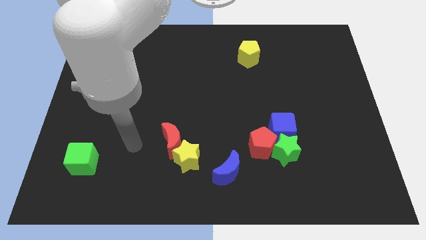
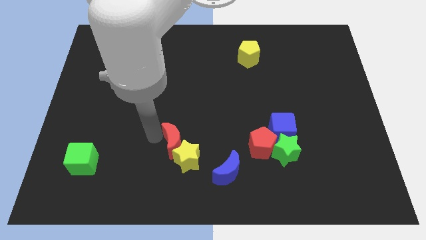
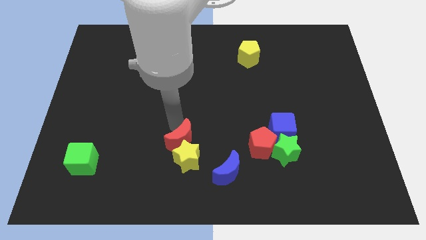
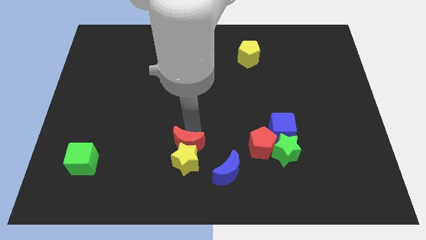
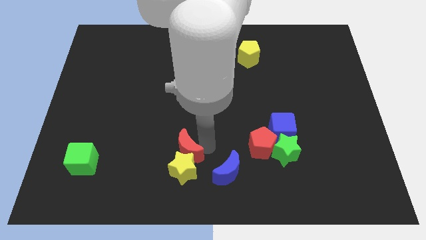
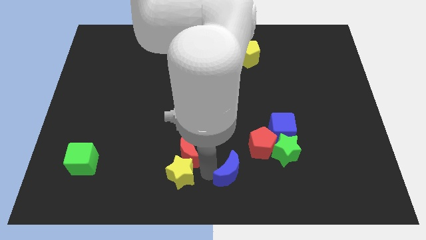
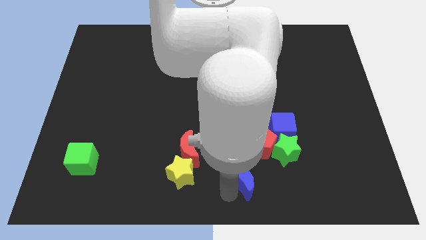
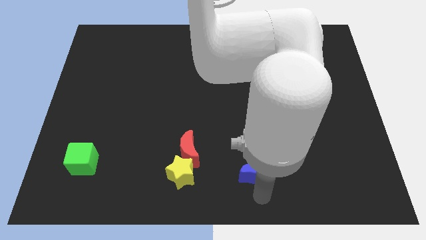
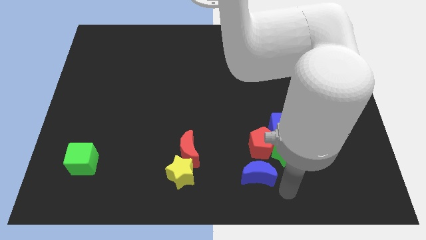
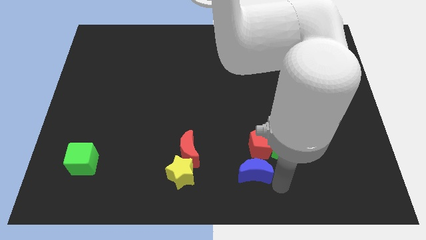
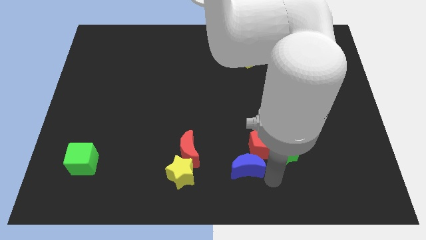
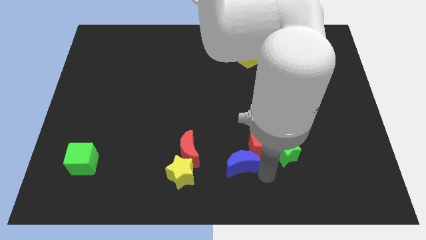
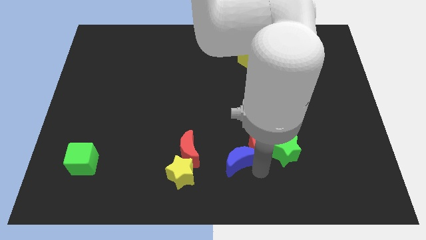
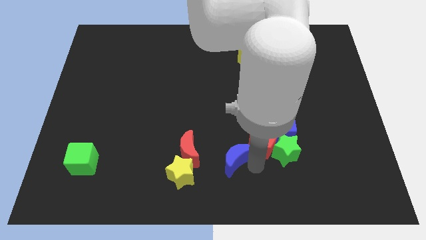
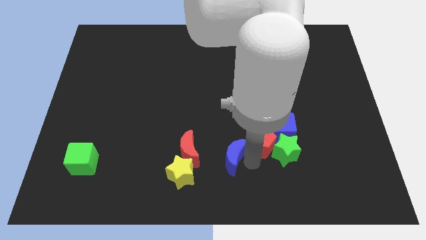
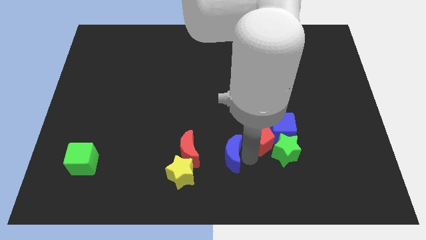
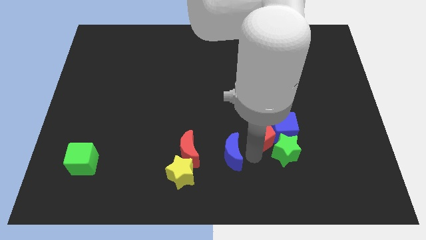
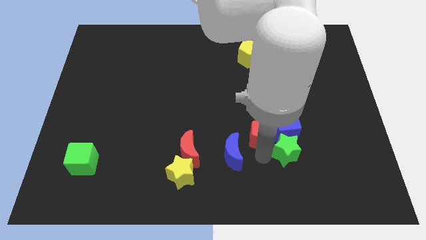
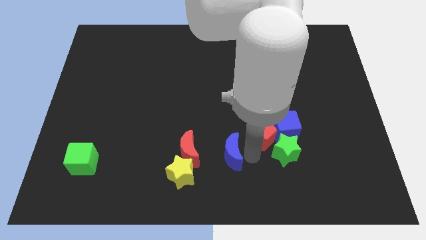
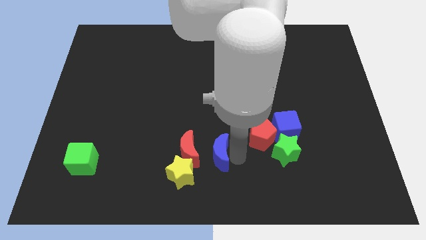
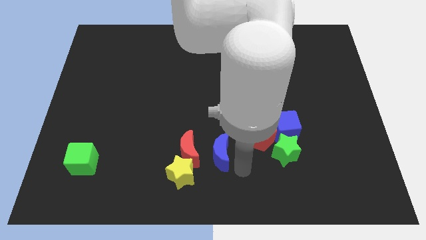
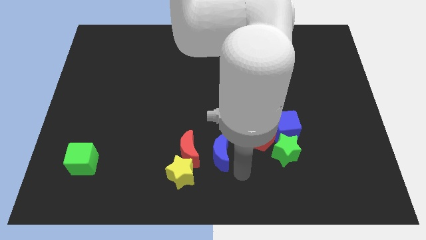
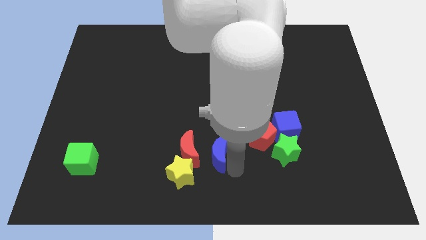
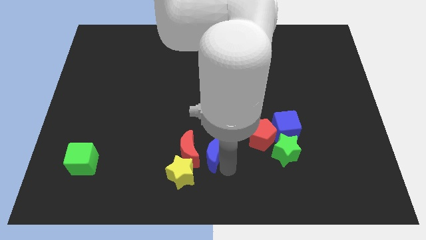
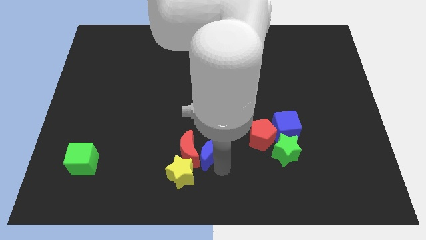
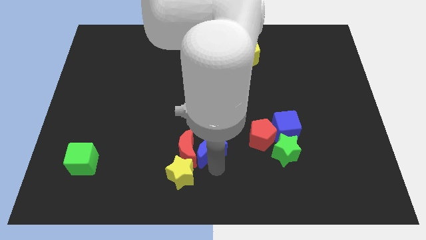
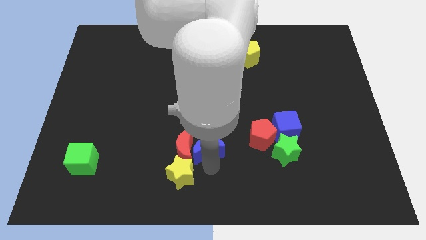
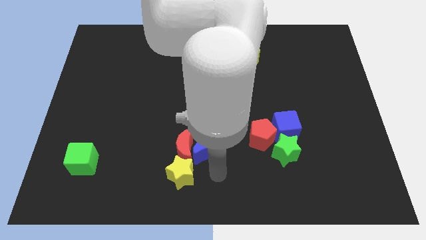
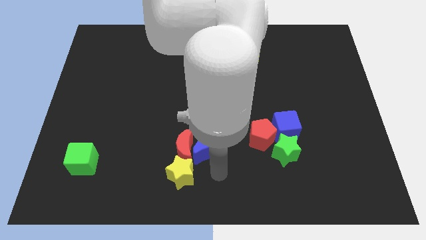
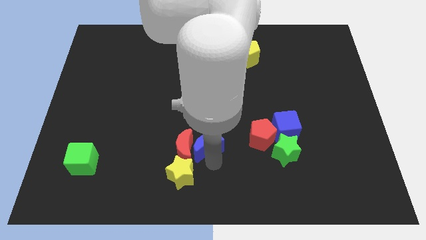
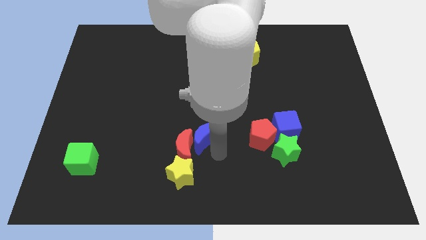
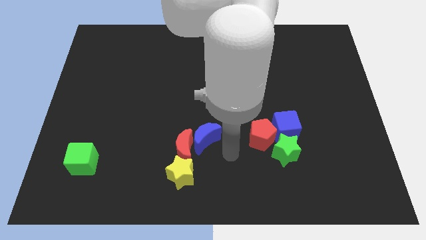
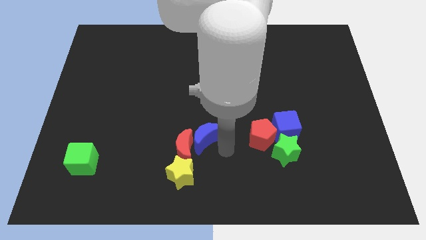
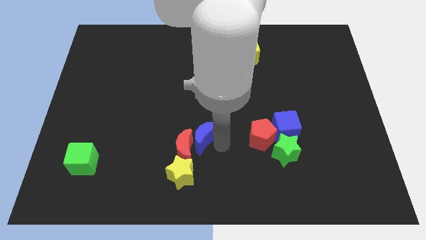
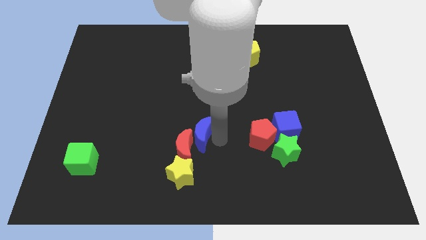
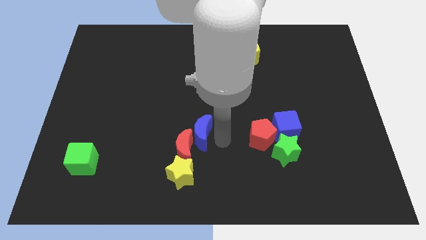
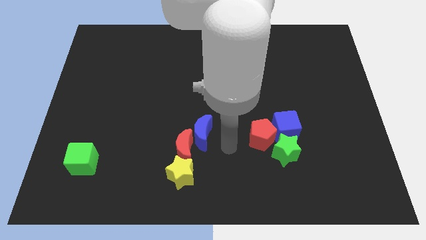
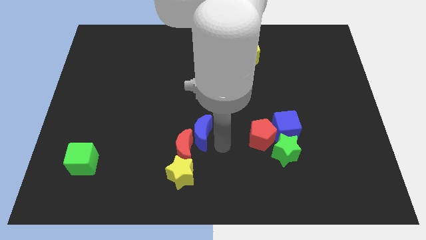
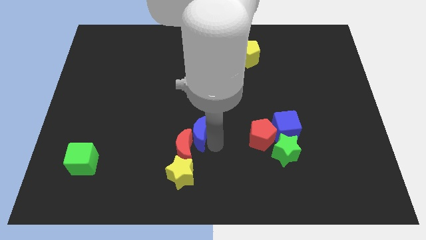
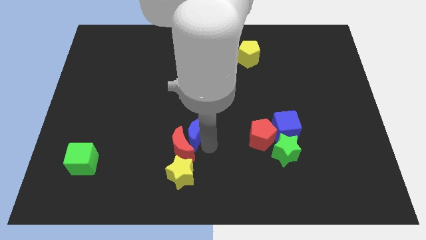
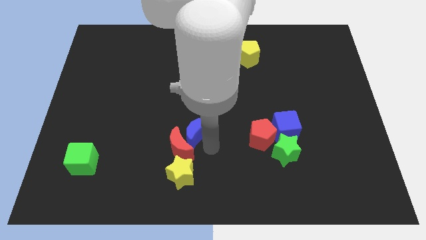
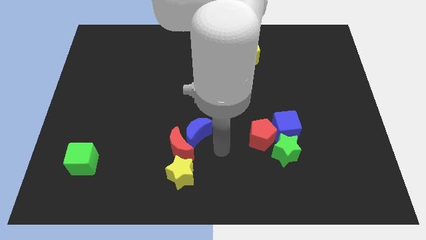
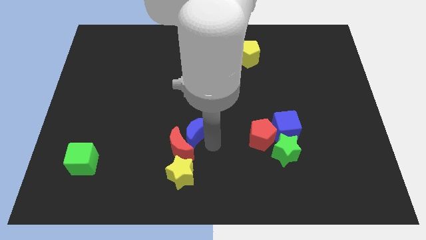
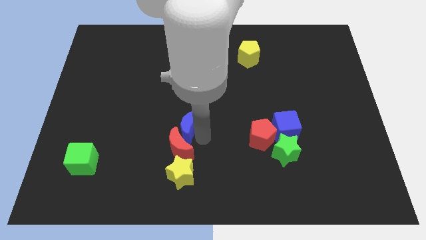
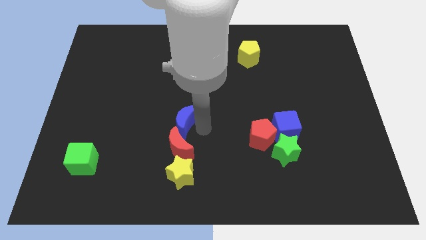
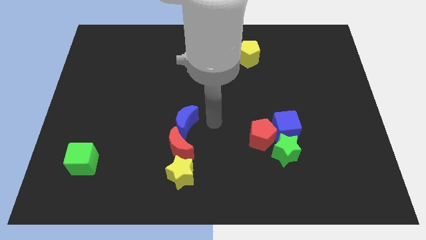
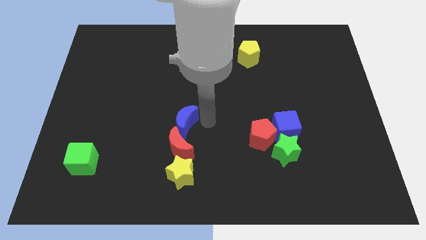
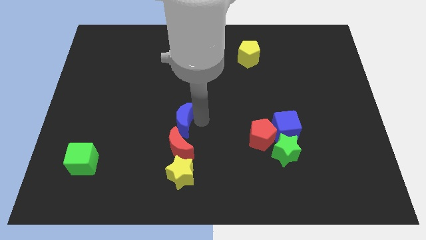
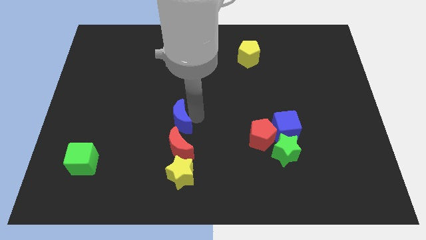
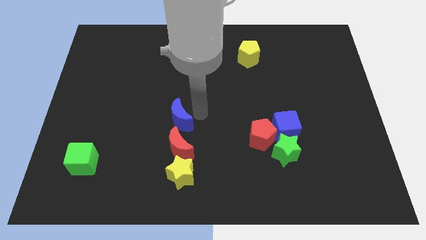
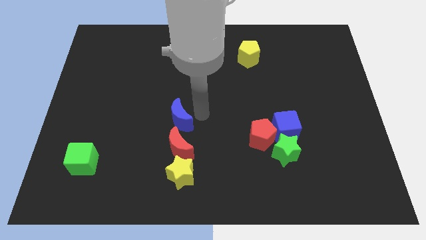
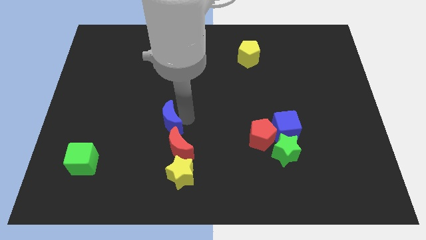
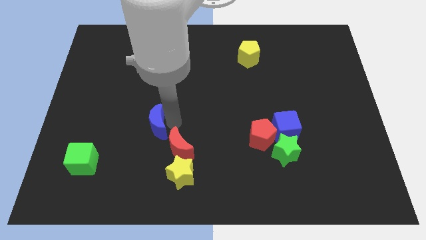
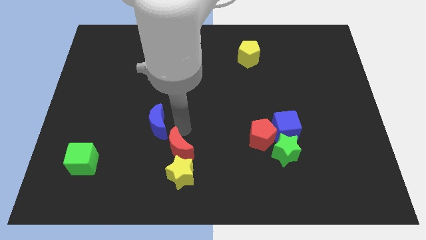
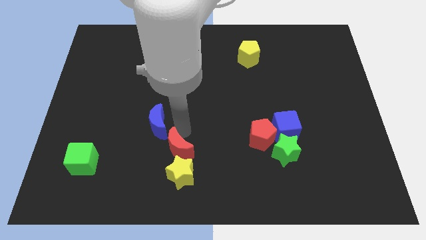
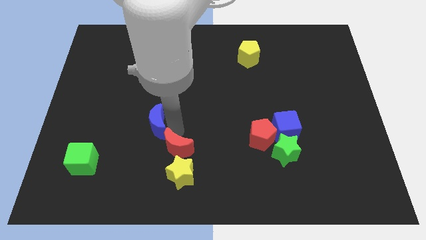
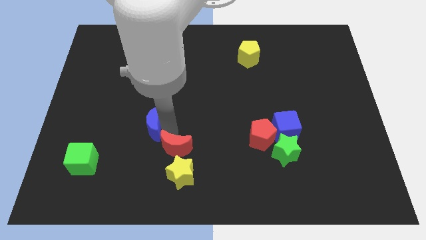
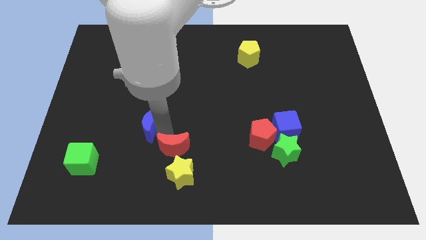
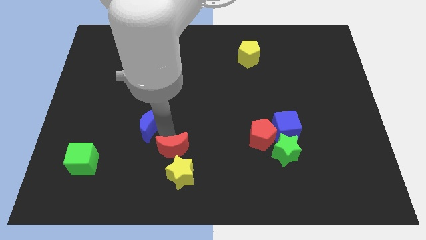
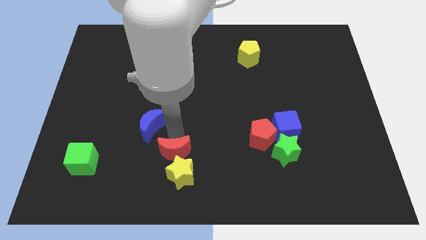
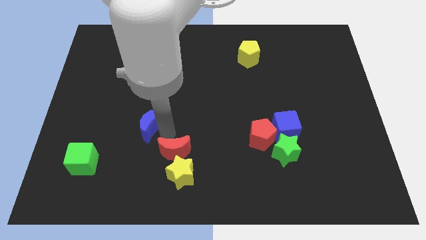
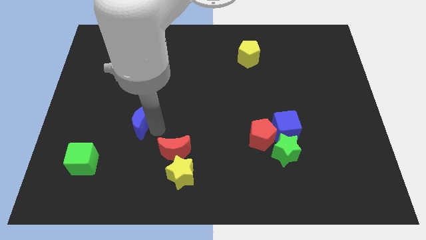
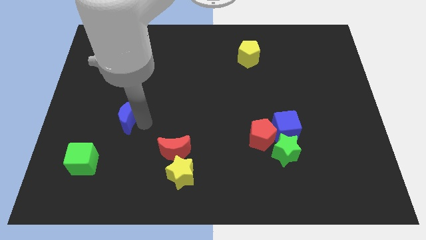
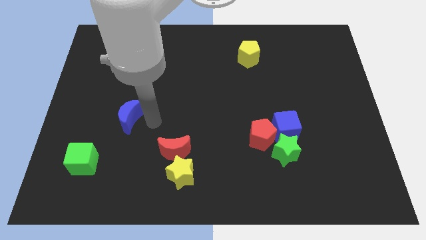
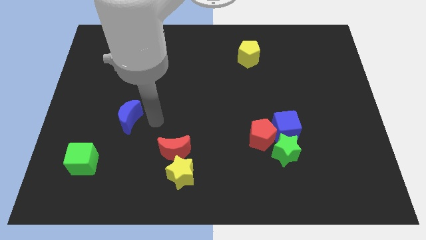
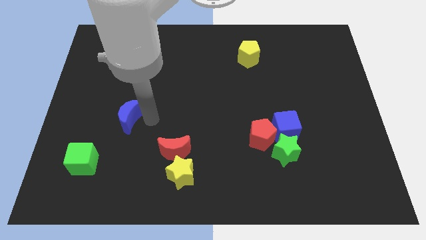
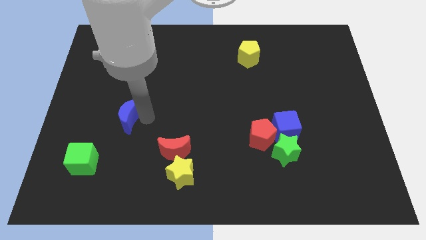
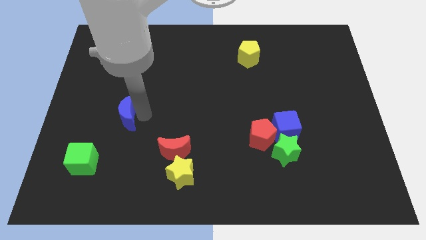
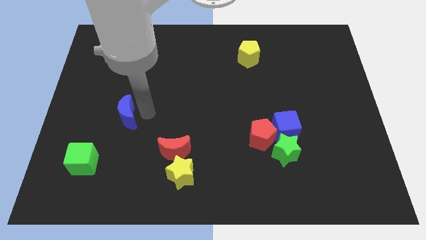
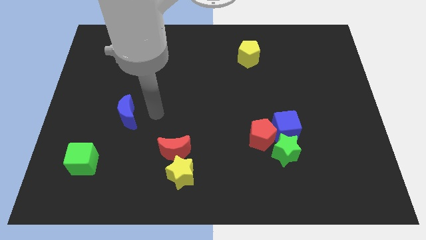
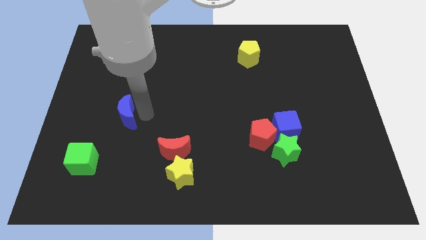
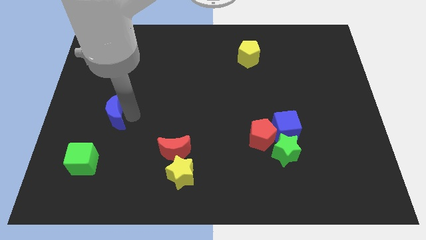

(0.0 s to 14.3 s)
slide the blue moon to the top of the green cube
